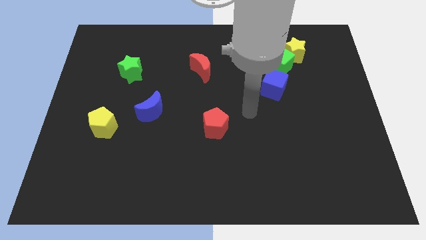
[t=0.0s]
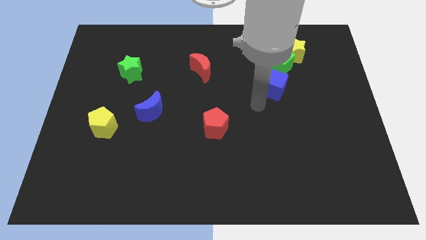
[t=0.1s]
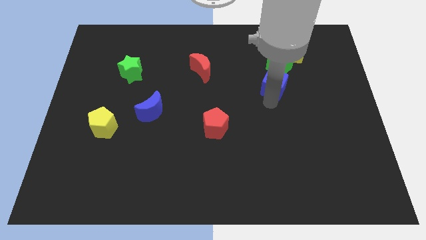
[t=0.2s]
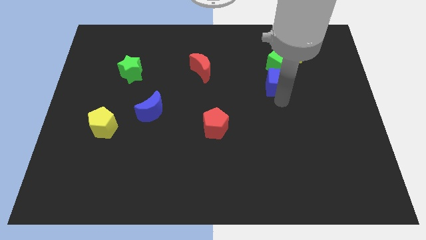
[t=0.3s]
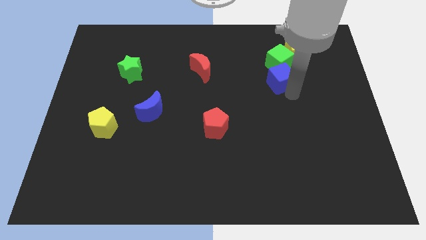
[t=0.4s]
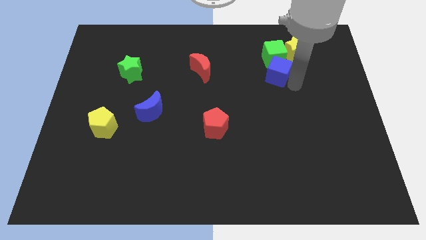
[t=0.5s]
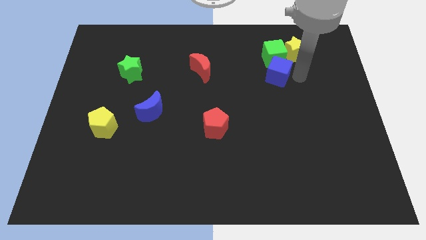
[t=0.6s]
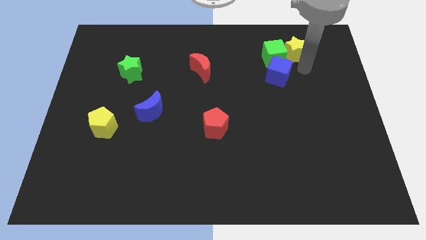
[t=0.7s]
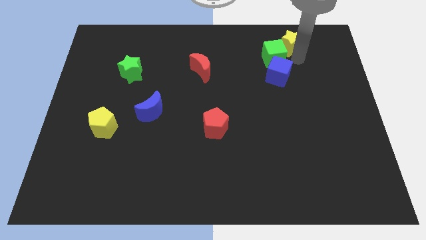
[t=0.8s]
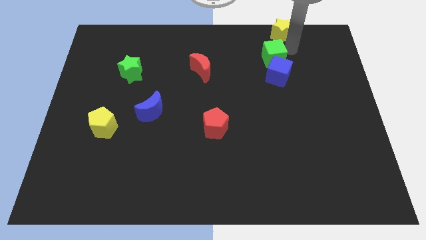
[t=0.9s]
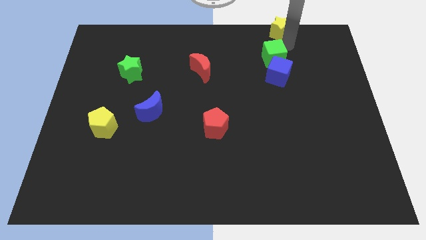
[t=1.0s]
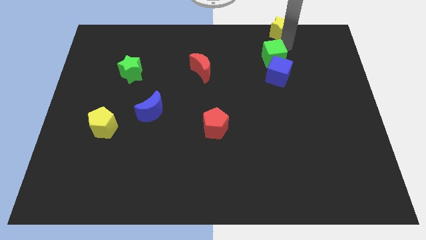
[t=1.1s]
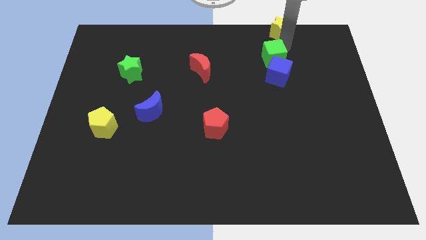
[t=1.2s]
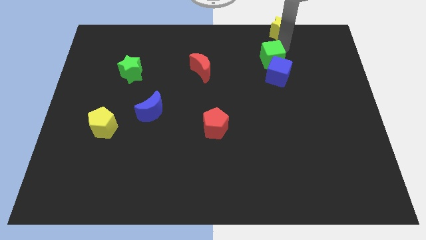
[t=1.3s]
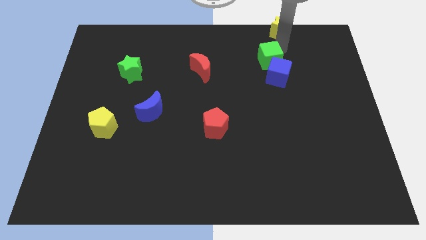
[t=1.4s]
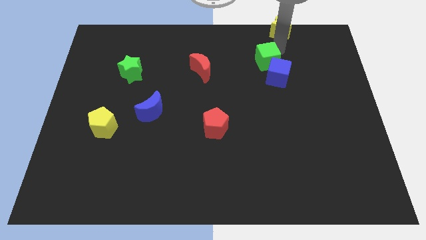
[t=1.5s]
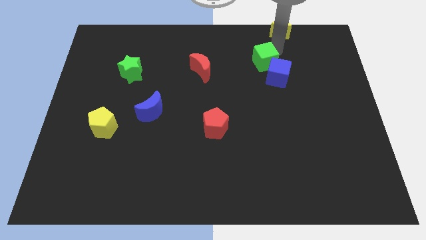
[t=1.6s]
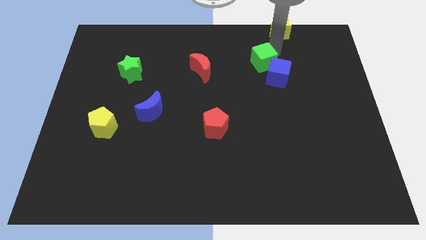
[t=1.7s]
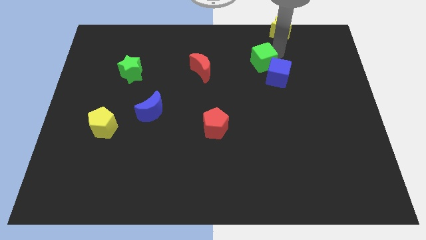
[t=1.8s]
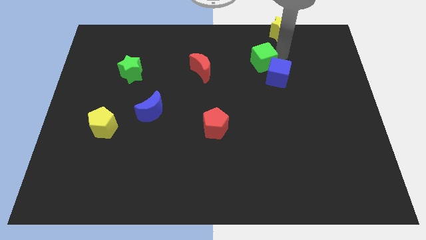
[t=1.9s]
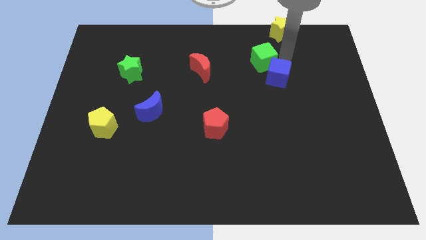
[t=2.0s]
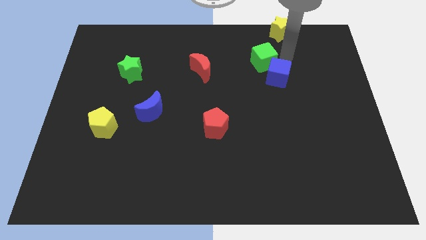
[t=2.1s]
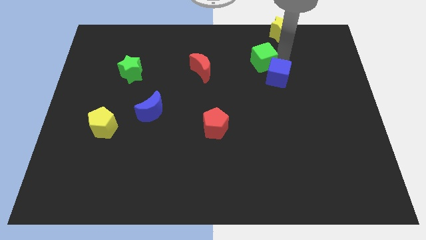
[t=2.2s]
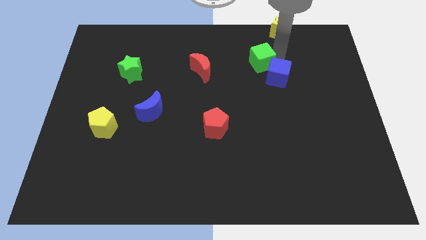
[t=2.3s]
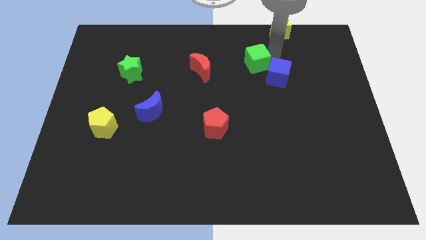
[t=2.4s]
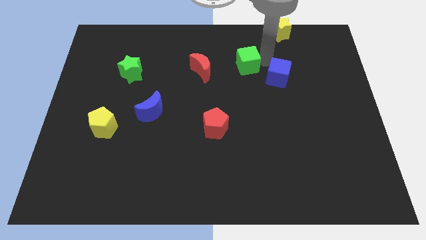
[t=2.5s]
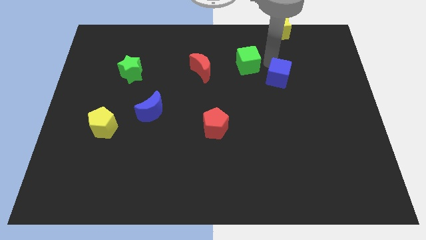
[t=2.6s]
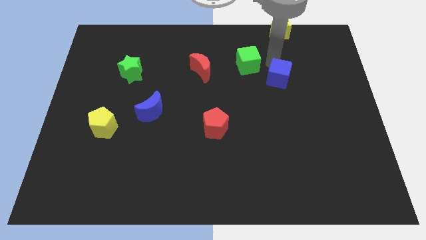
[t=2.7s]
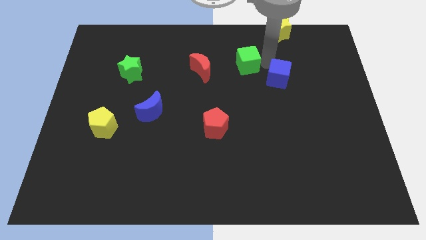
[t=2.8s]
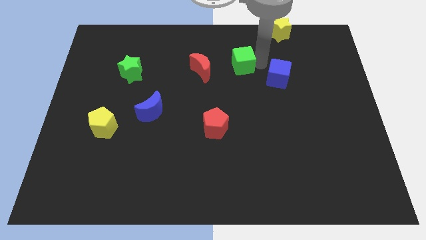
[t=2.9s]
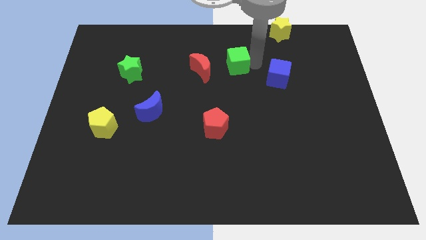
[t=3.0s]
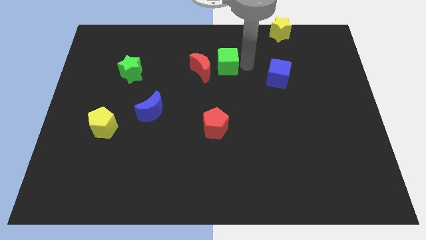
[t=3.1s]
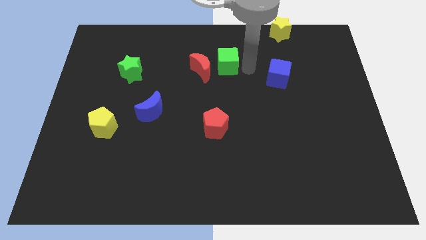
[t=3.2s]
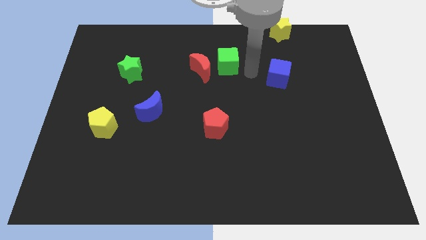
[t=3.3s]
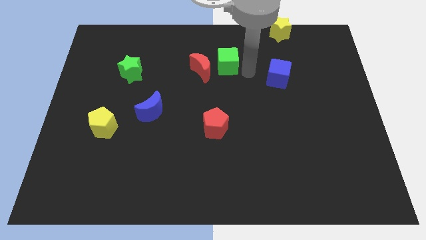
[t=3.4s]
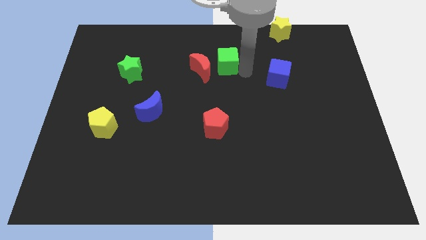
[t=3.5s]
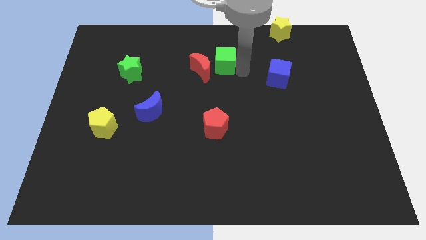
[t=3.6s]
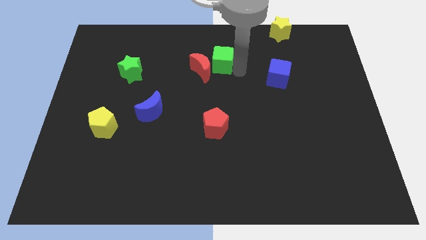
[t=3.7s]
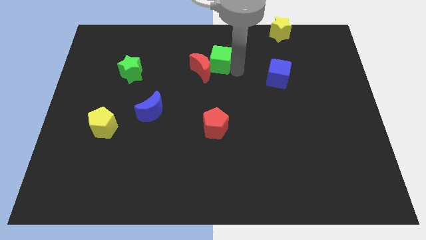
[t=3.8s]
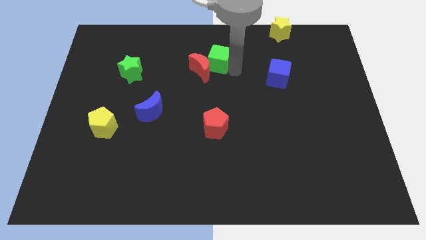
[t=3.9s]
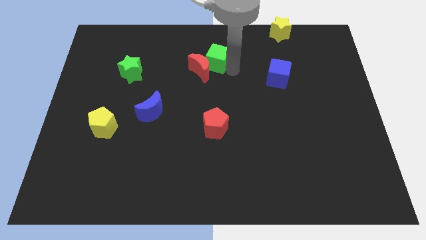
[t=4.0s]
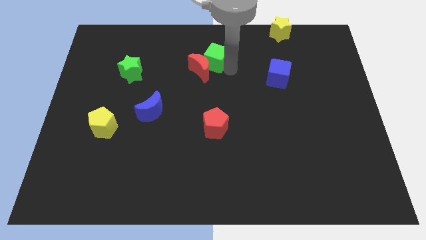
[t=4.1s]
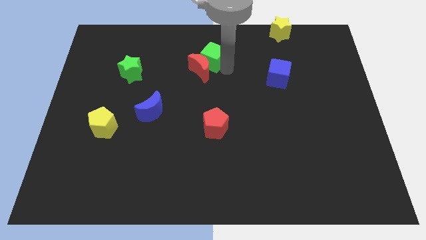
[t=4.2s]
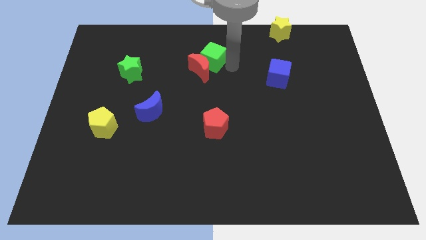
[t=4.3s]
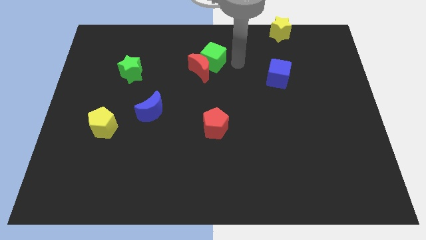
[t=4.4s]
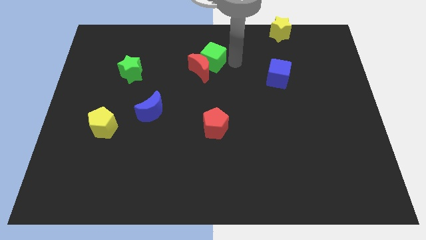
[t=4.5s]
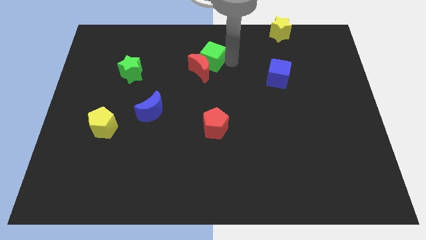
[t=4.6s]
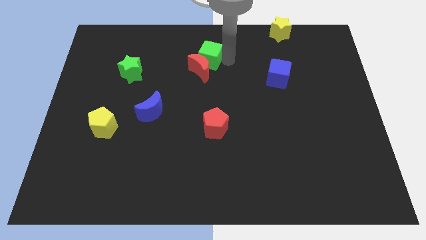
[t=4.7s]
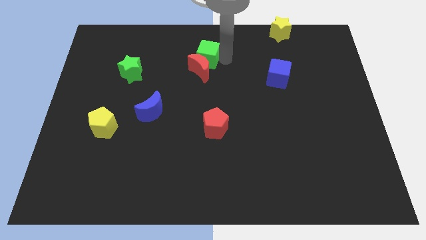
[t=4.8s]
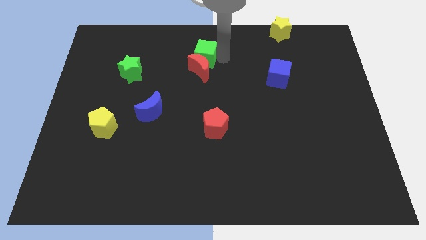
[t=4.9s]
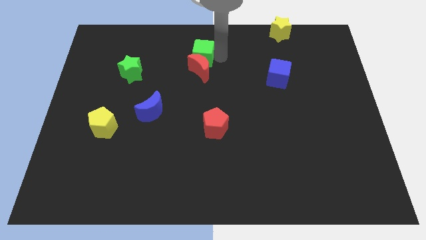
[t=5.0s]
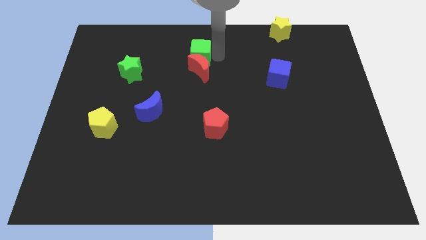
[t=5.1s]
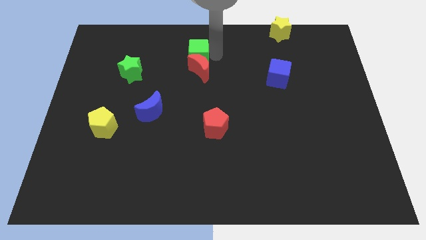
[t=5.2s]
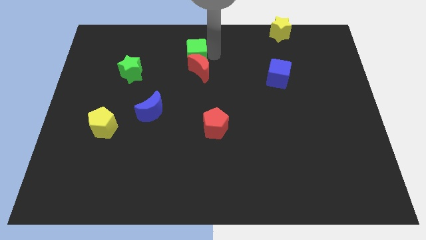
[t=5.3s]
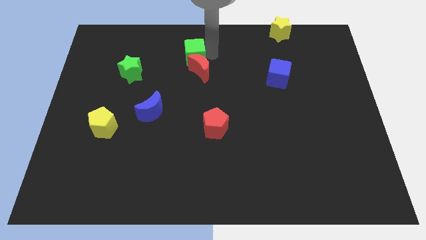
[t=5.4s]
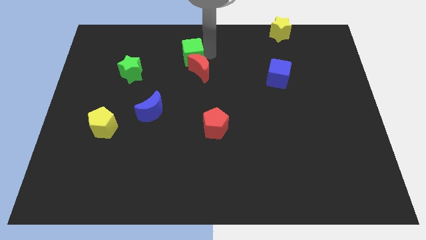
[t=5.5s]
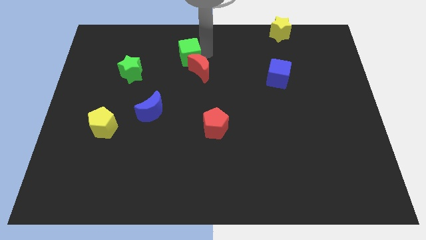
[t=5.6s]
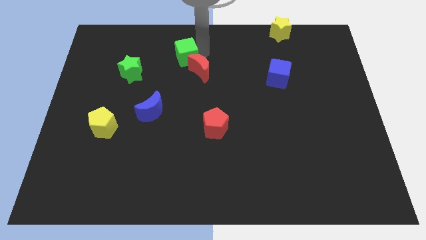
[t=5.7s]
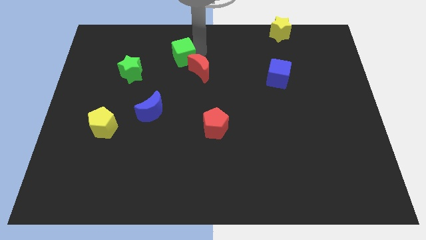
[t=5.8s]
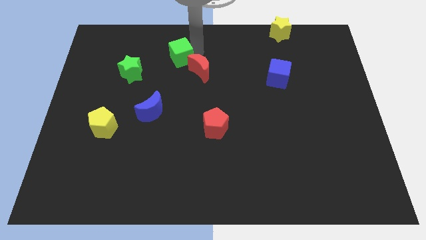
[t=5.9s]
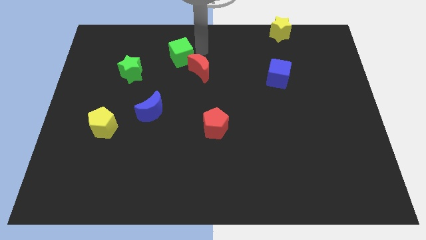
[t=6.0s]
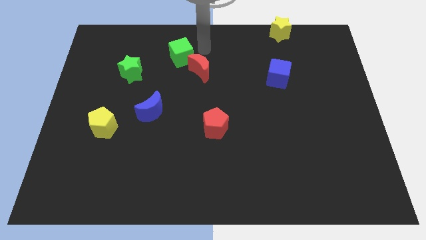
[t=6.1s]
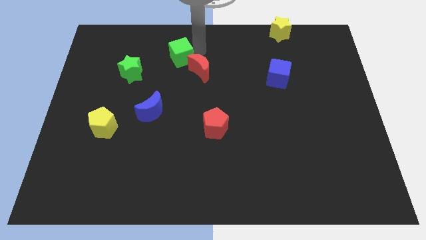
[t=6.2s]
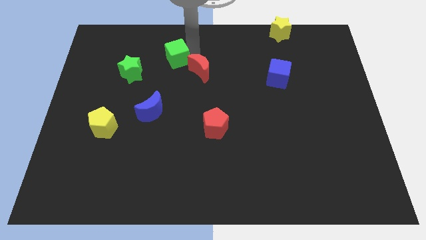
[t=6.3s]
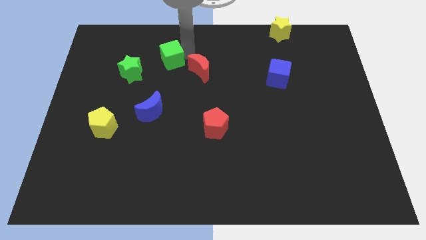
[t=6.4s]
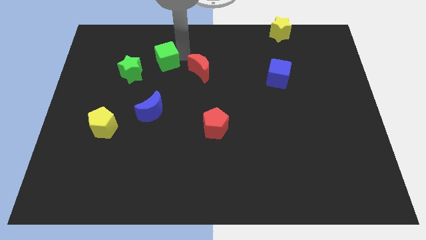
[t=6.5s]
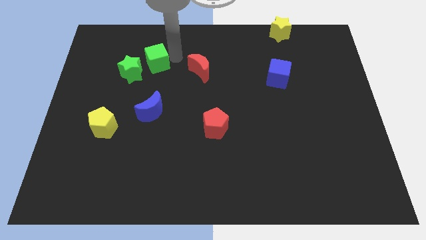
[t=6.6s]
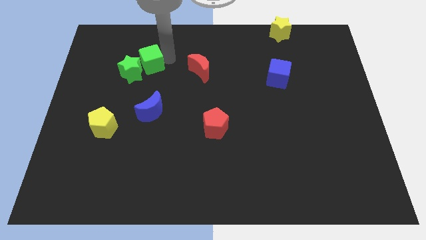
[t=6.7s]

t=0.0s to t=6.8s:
move the green cube to the green star
